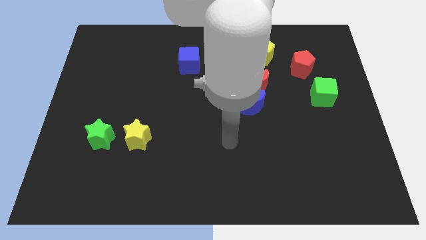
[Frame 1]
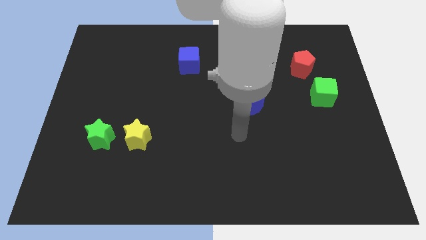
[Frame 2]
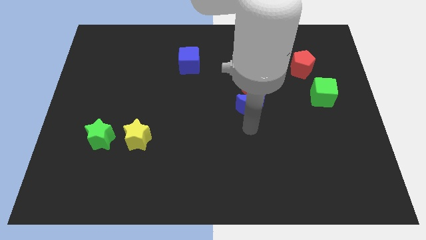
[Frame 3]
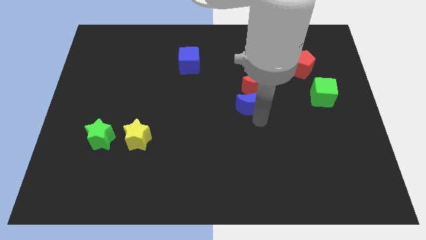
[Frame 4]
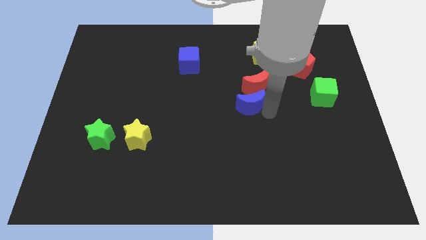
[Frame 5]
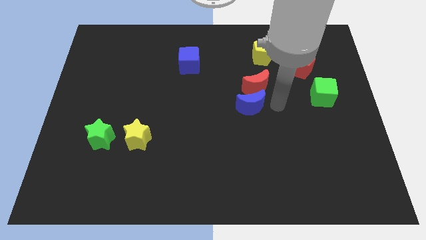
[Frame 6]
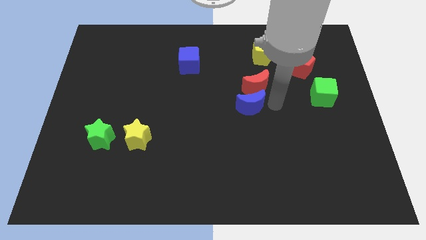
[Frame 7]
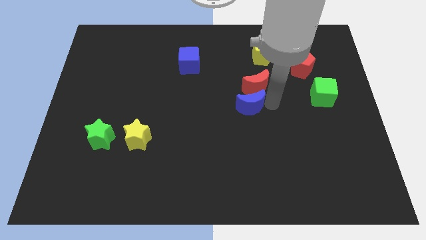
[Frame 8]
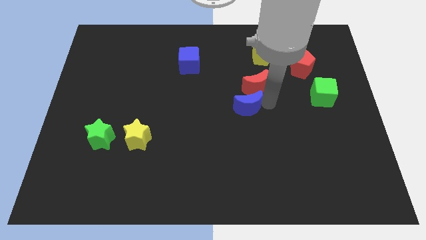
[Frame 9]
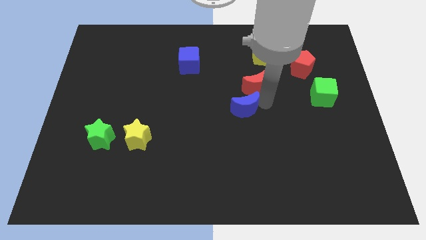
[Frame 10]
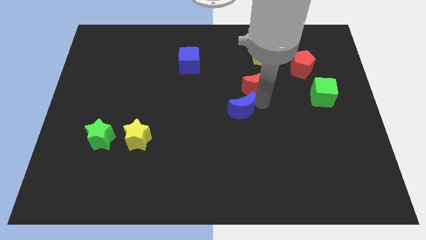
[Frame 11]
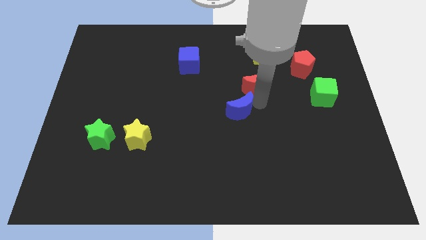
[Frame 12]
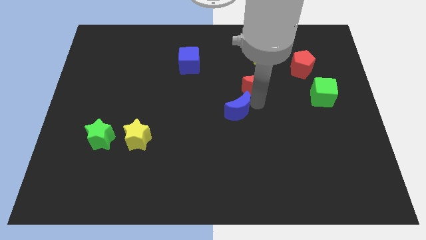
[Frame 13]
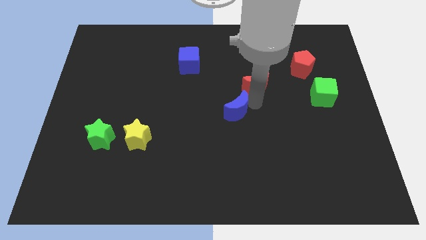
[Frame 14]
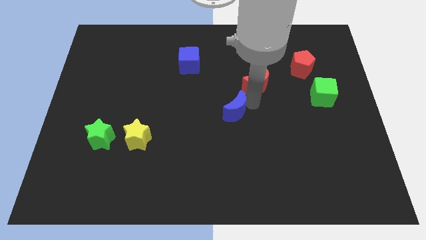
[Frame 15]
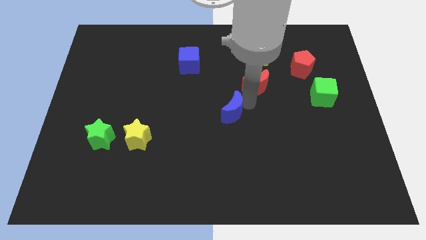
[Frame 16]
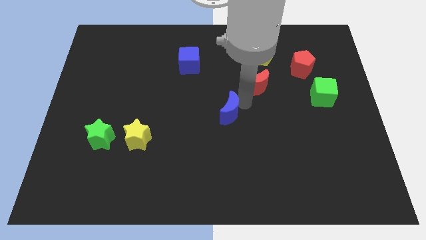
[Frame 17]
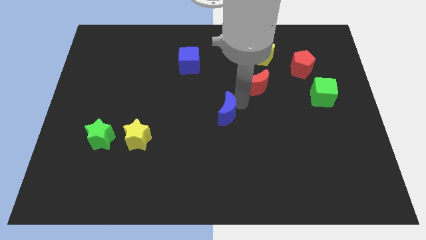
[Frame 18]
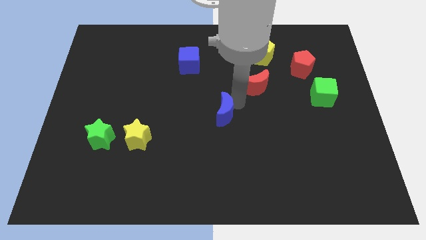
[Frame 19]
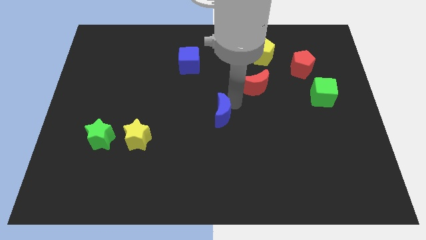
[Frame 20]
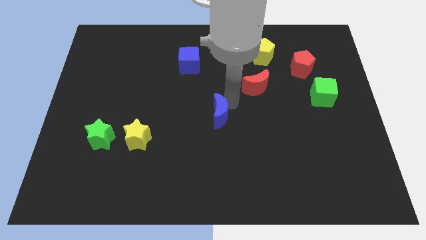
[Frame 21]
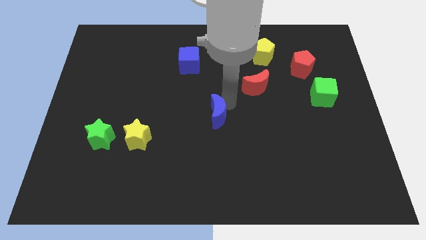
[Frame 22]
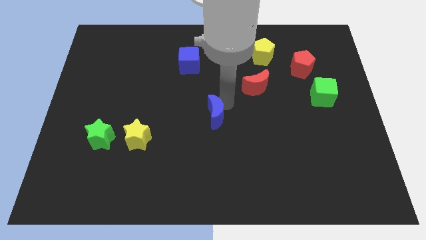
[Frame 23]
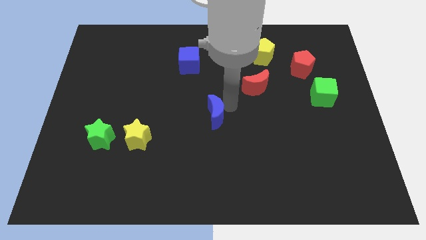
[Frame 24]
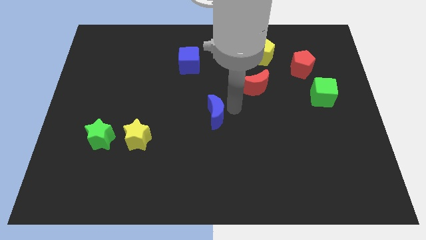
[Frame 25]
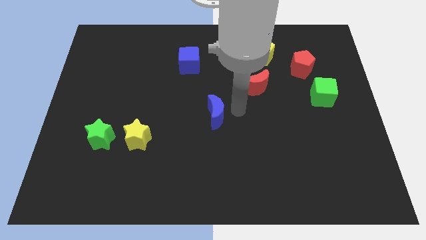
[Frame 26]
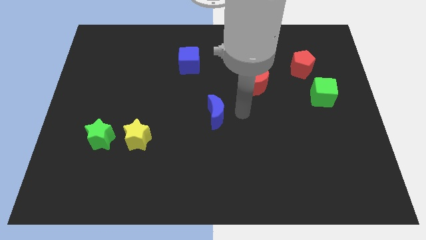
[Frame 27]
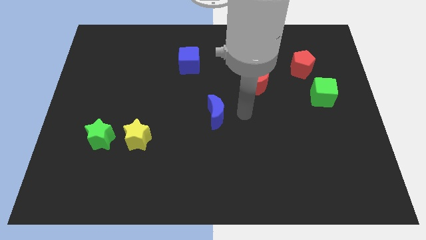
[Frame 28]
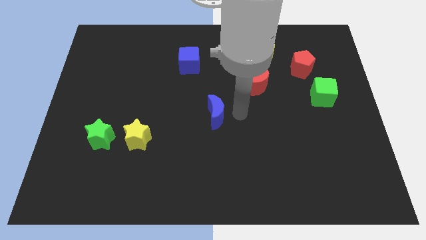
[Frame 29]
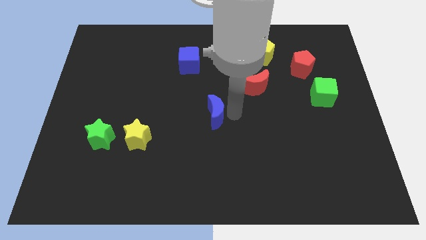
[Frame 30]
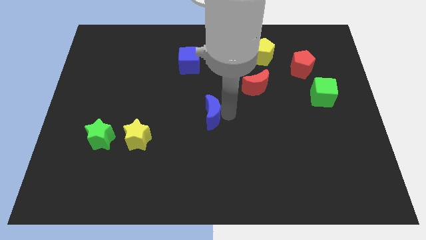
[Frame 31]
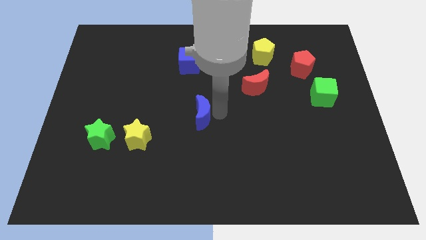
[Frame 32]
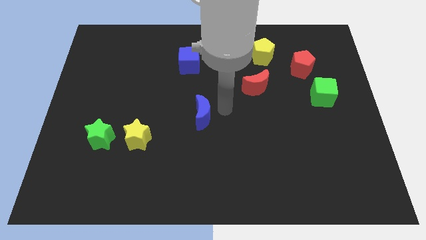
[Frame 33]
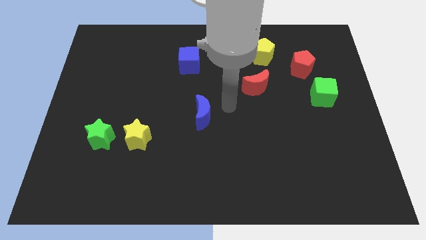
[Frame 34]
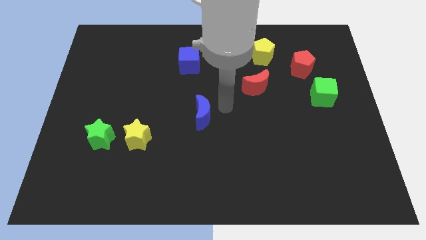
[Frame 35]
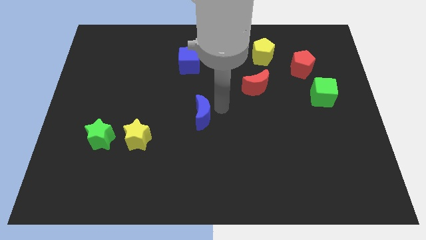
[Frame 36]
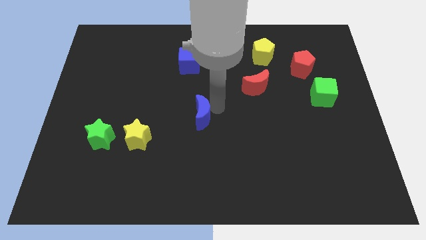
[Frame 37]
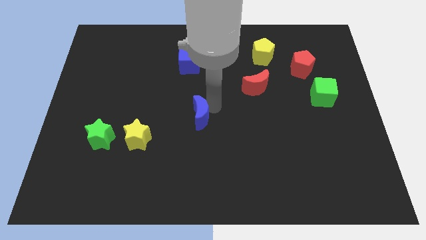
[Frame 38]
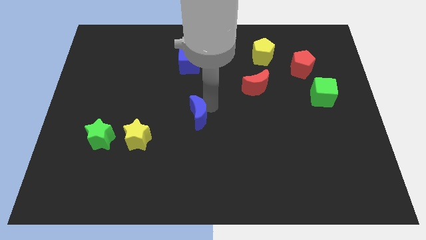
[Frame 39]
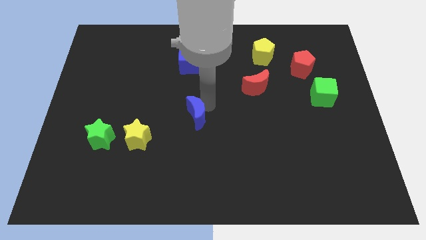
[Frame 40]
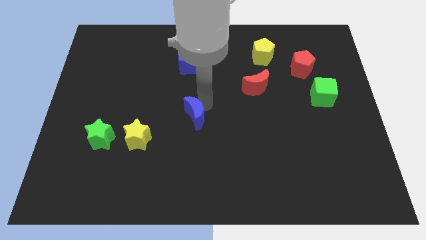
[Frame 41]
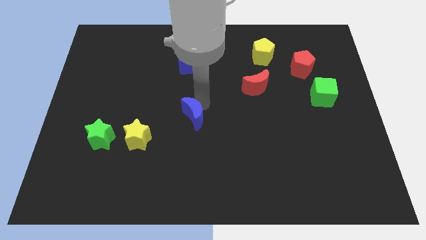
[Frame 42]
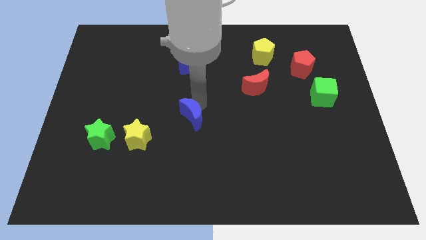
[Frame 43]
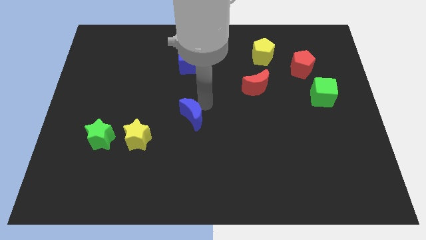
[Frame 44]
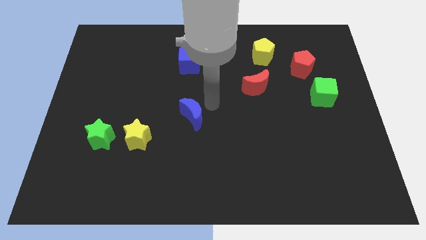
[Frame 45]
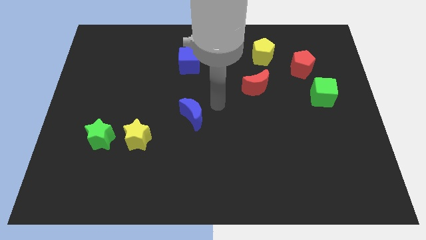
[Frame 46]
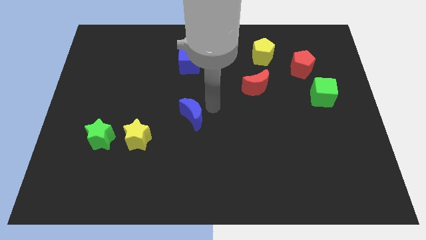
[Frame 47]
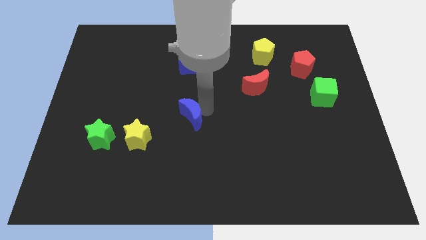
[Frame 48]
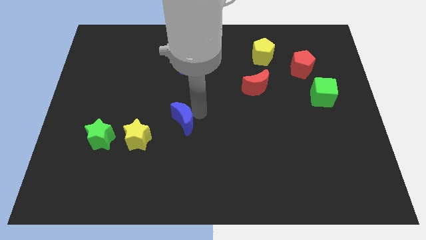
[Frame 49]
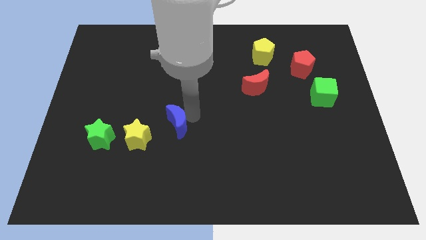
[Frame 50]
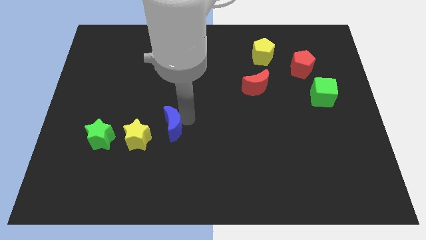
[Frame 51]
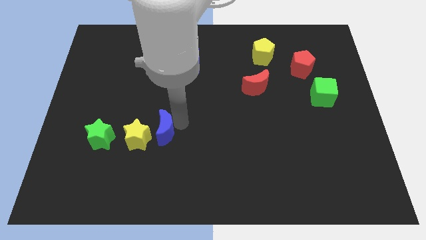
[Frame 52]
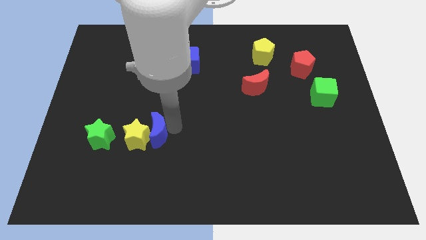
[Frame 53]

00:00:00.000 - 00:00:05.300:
slide the blue moon to the yellow star
